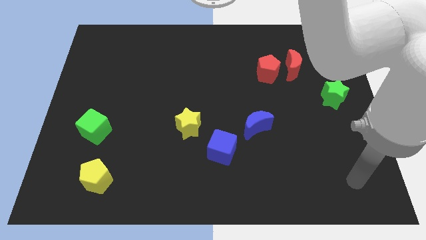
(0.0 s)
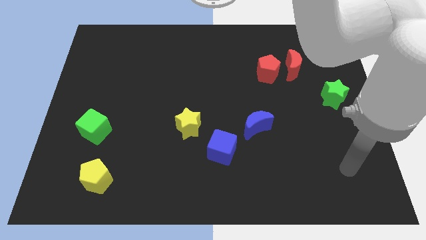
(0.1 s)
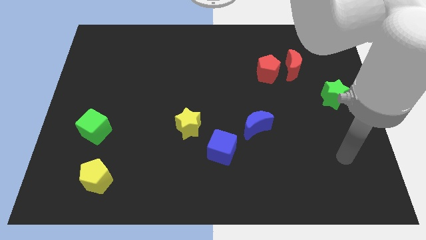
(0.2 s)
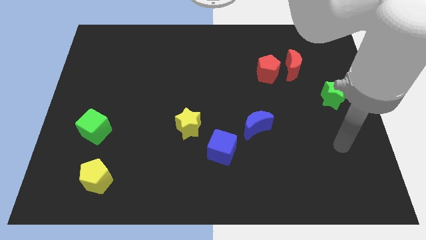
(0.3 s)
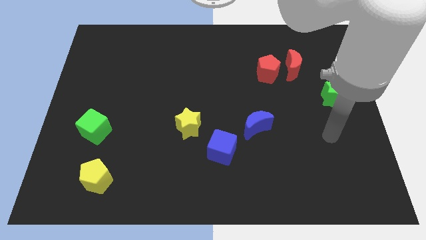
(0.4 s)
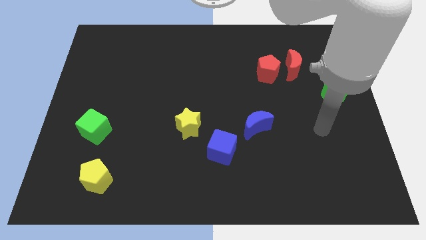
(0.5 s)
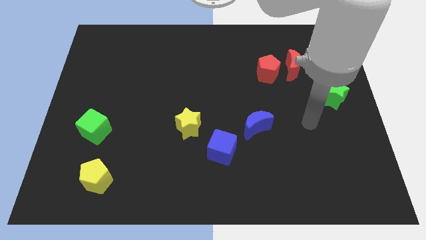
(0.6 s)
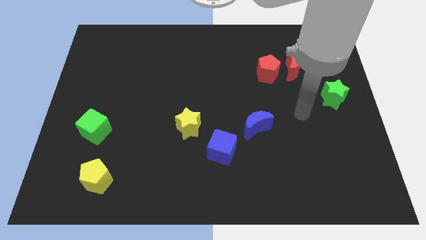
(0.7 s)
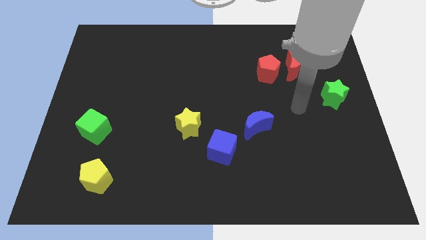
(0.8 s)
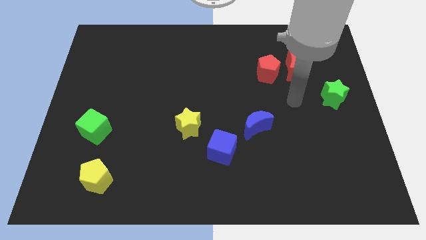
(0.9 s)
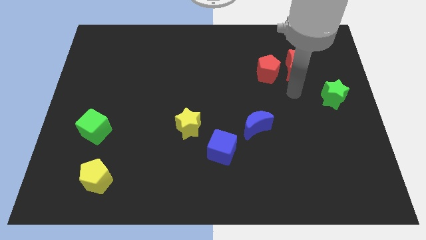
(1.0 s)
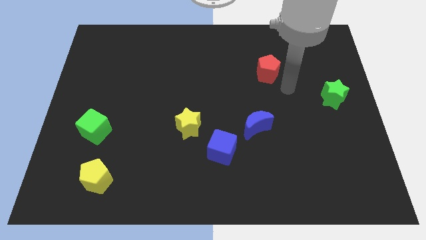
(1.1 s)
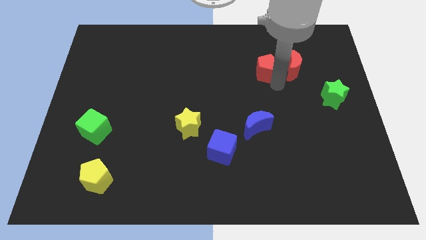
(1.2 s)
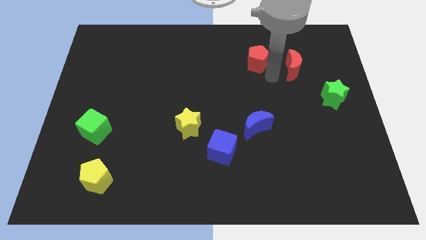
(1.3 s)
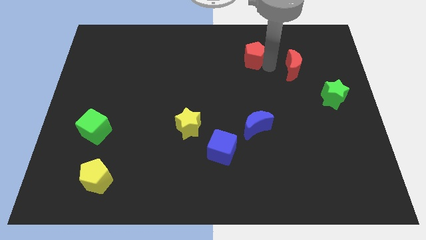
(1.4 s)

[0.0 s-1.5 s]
move the red moon away from the red pentagon

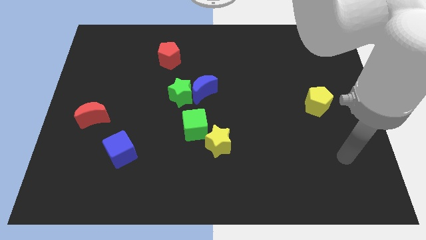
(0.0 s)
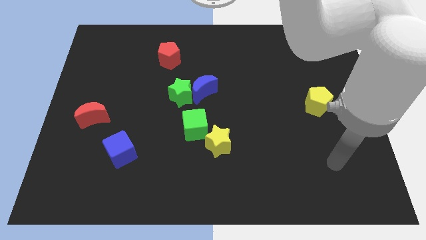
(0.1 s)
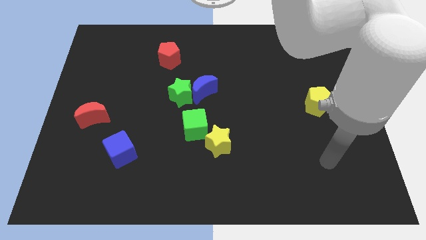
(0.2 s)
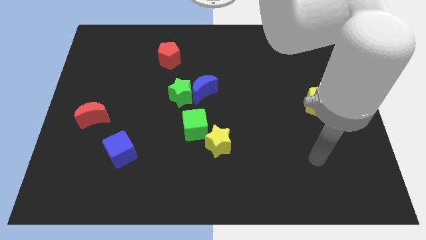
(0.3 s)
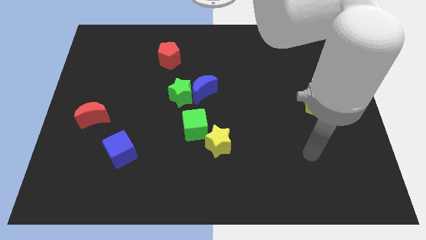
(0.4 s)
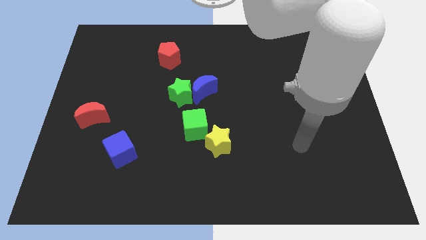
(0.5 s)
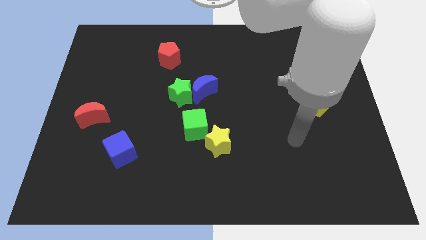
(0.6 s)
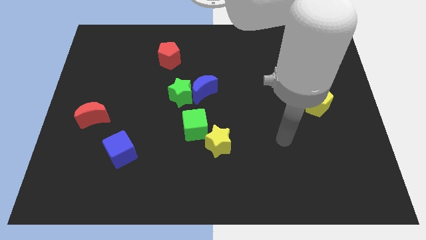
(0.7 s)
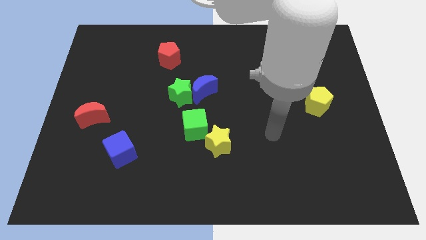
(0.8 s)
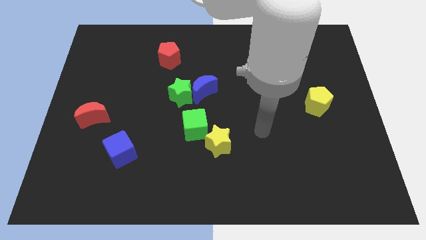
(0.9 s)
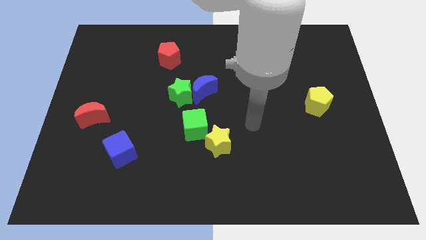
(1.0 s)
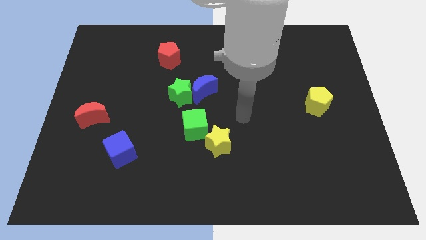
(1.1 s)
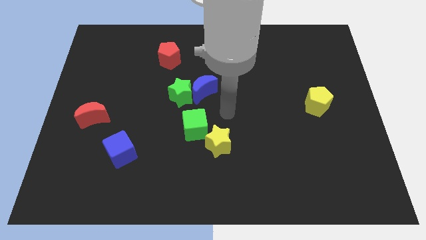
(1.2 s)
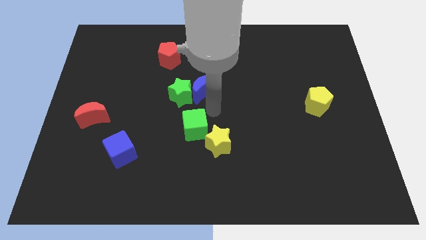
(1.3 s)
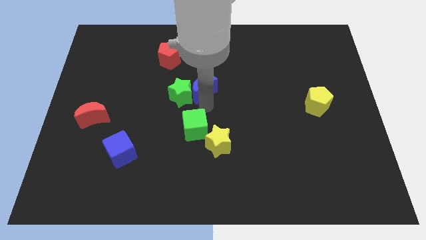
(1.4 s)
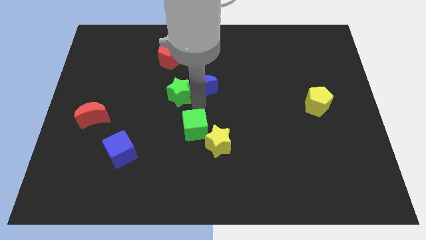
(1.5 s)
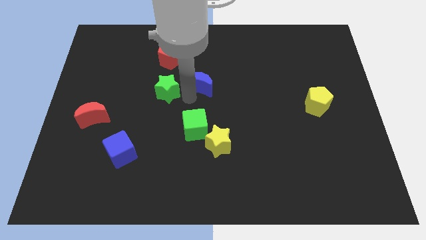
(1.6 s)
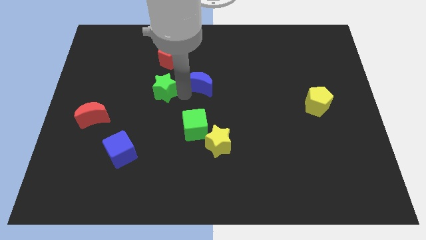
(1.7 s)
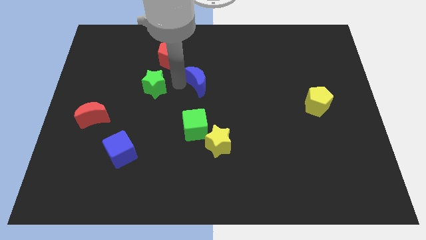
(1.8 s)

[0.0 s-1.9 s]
separate the blue moon from the green star

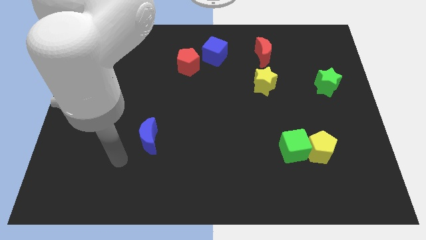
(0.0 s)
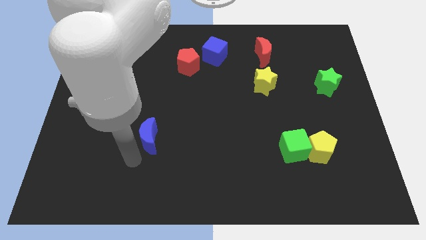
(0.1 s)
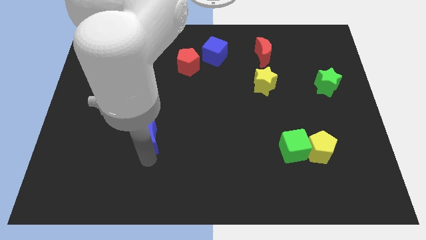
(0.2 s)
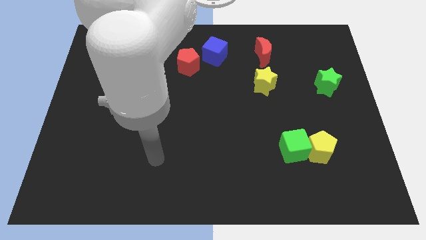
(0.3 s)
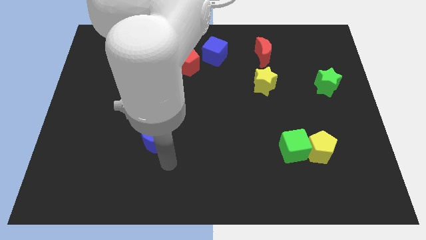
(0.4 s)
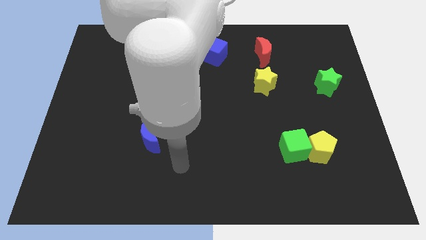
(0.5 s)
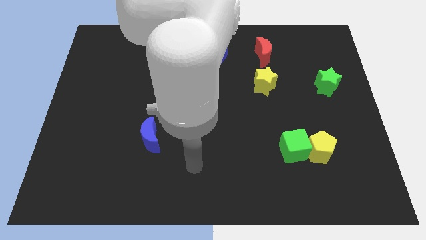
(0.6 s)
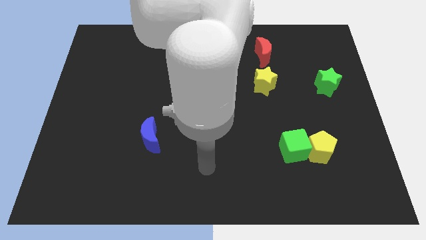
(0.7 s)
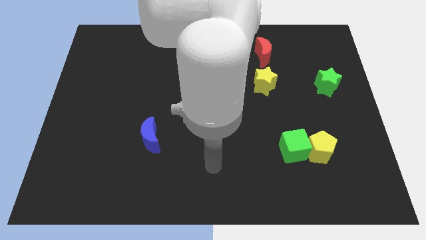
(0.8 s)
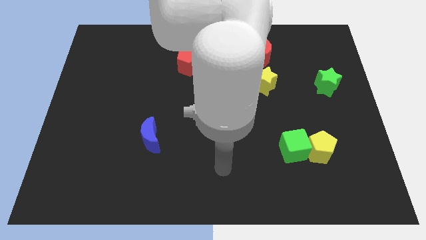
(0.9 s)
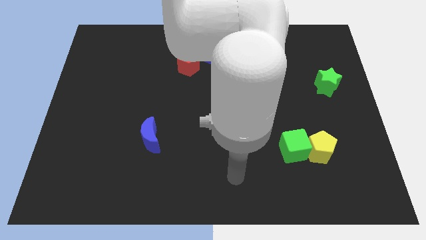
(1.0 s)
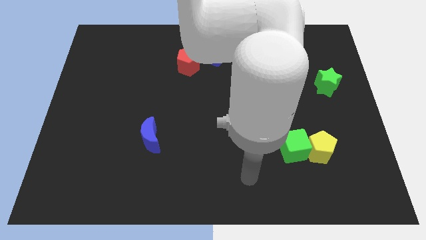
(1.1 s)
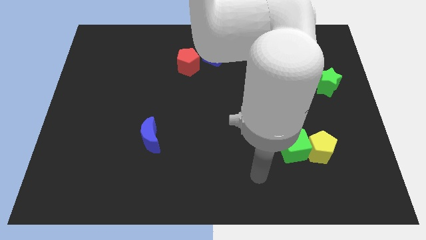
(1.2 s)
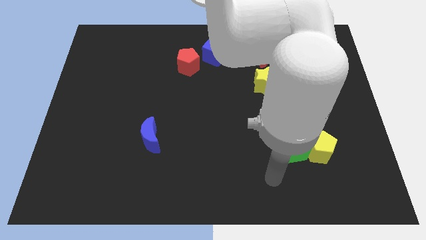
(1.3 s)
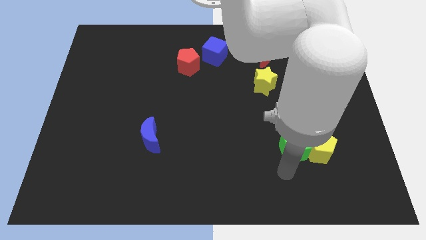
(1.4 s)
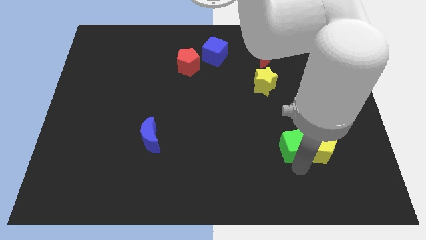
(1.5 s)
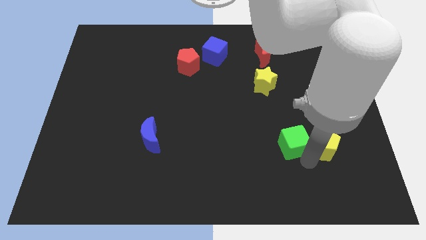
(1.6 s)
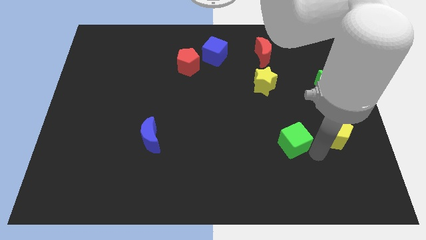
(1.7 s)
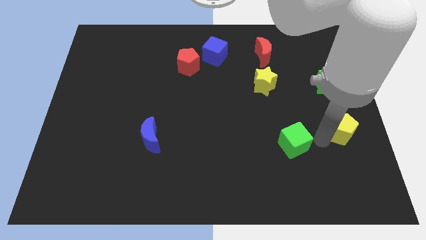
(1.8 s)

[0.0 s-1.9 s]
separate the green cube from the yellow pentagon

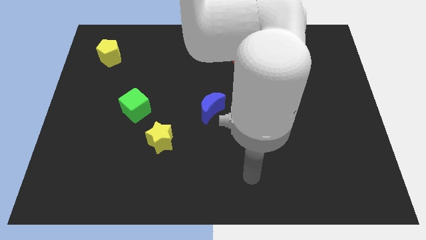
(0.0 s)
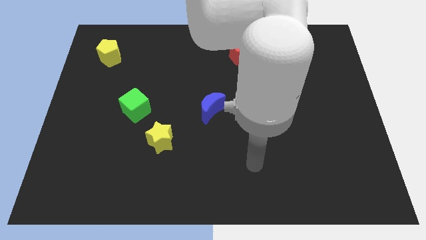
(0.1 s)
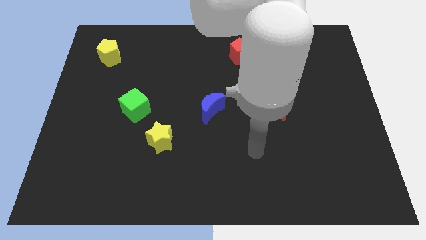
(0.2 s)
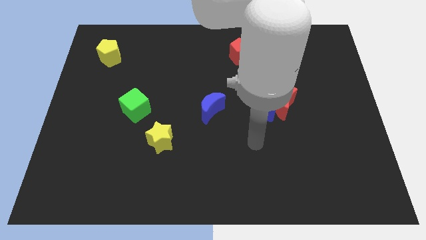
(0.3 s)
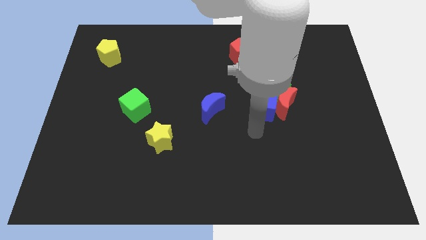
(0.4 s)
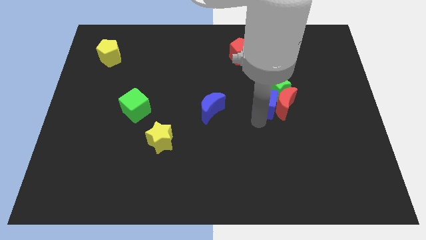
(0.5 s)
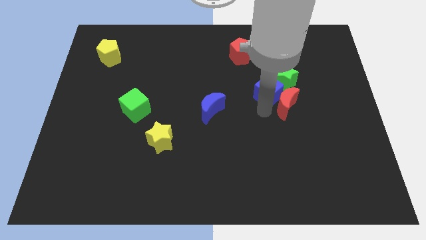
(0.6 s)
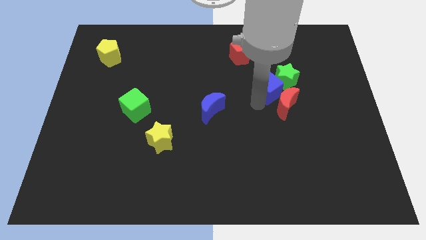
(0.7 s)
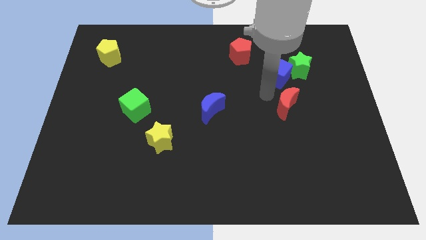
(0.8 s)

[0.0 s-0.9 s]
pull the red moon apart from the green star and blue cube

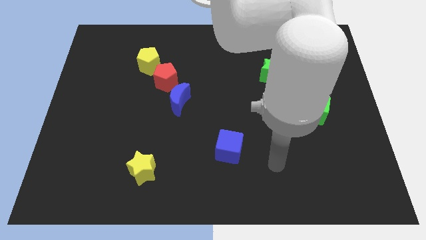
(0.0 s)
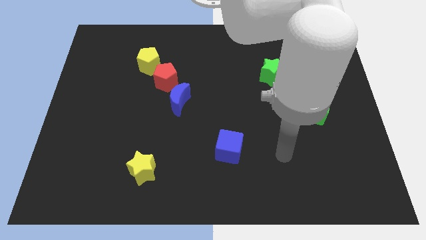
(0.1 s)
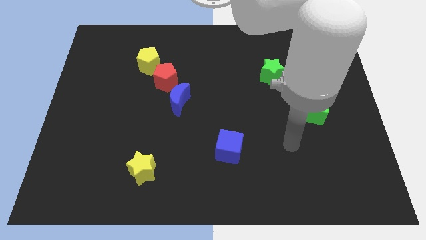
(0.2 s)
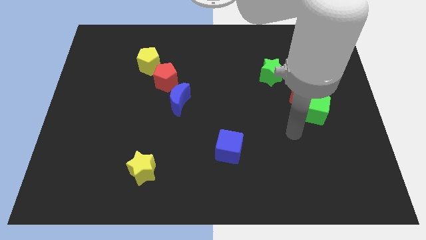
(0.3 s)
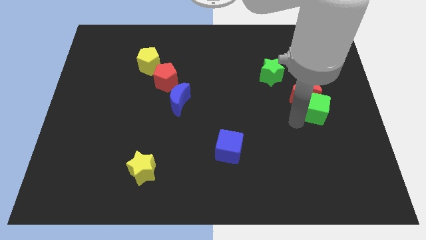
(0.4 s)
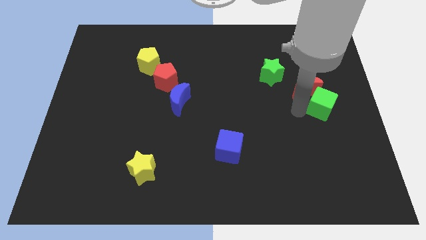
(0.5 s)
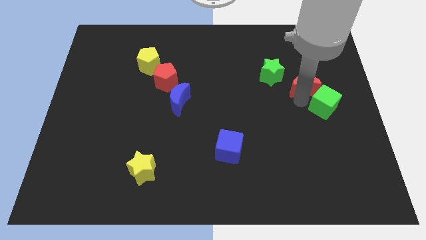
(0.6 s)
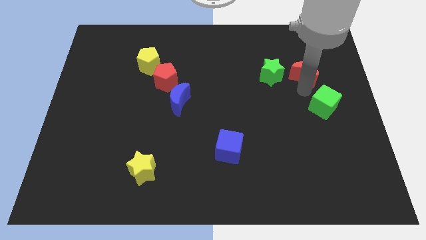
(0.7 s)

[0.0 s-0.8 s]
move the green cube away from the red moon

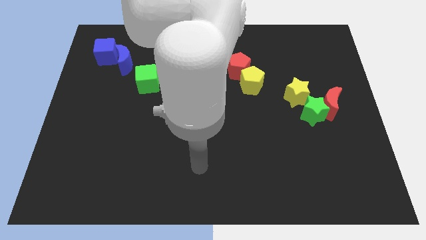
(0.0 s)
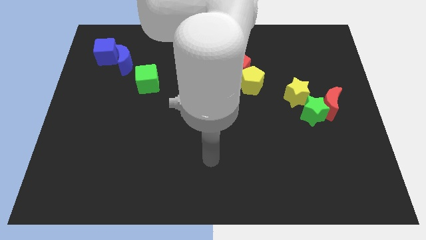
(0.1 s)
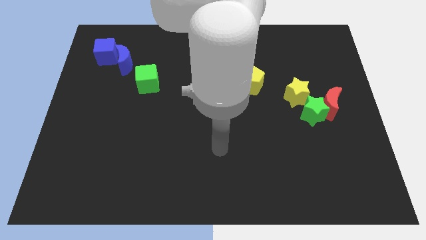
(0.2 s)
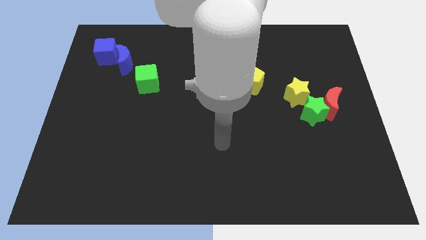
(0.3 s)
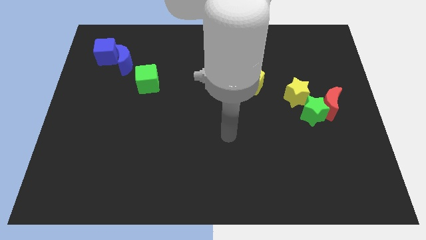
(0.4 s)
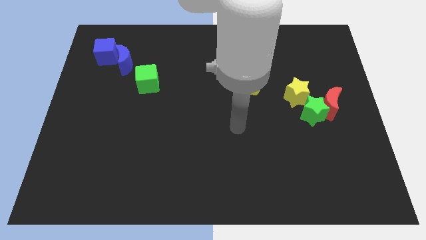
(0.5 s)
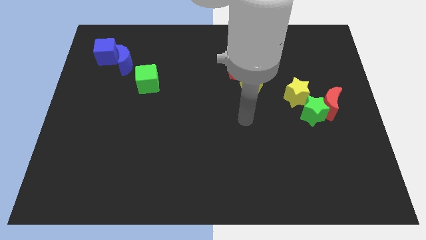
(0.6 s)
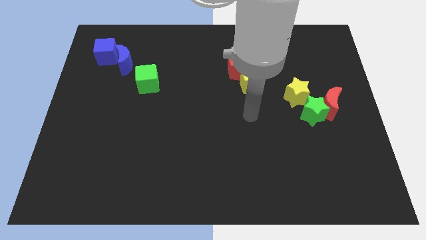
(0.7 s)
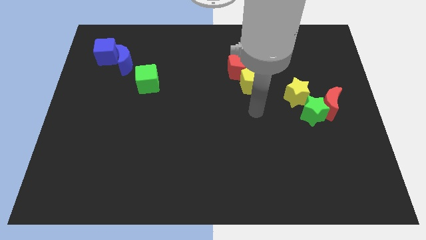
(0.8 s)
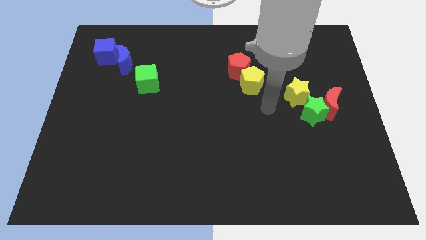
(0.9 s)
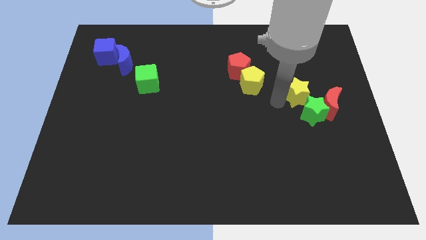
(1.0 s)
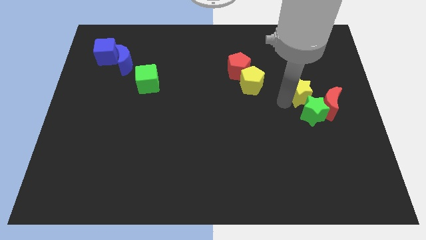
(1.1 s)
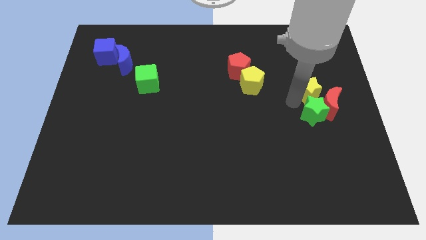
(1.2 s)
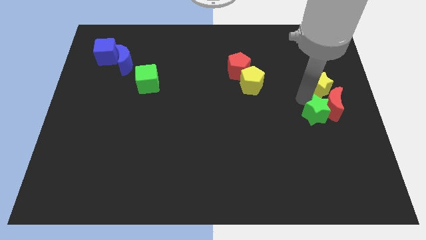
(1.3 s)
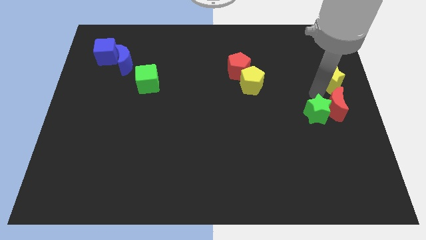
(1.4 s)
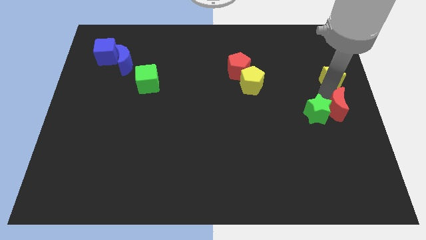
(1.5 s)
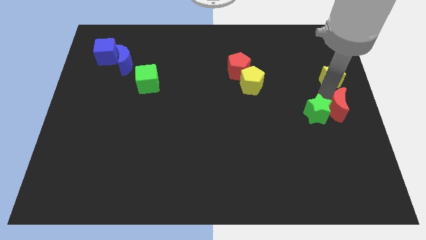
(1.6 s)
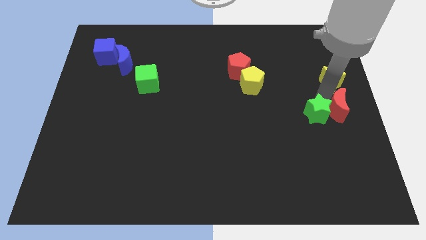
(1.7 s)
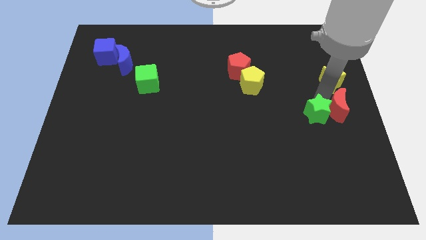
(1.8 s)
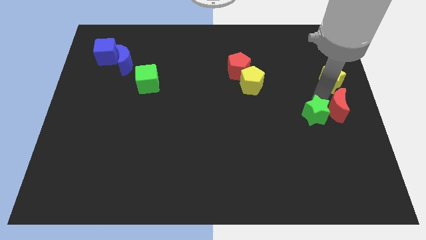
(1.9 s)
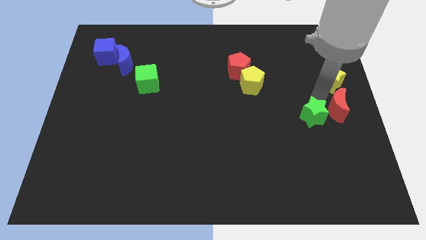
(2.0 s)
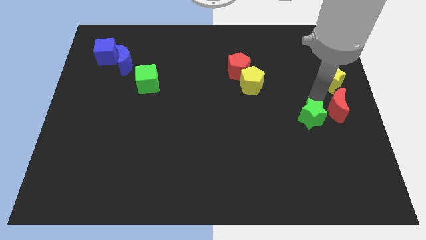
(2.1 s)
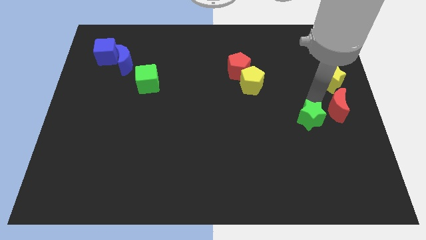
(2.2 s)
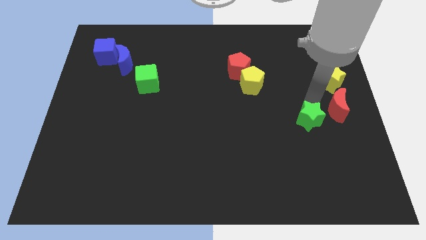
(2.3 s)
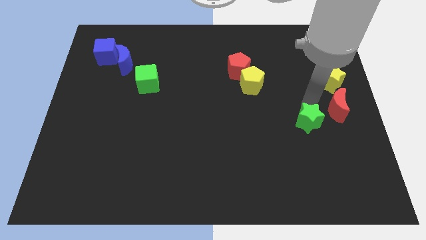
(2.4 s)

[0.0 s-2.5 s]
pull the green star apart from the red moon and yellow star
